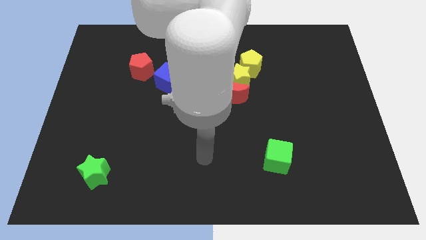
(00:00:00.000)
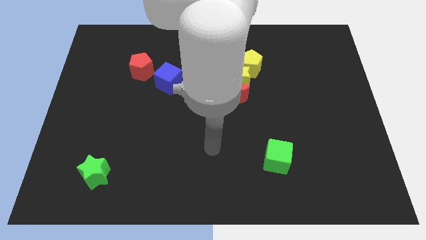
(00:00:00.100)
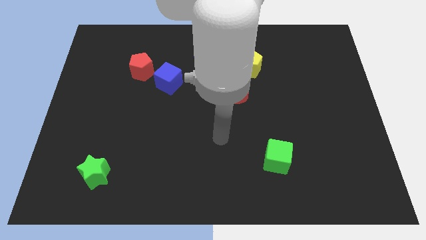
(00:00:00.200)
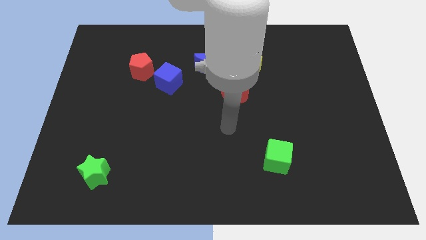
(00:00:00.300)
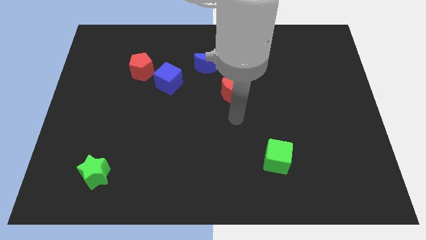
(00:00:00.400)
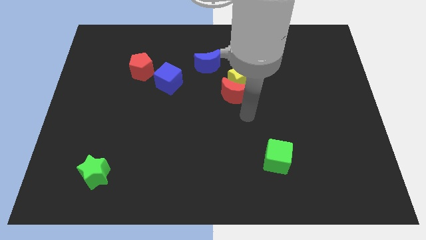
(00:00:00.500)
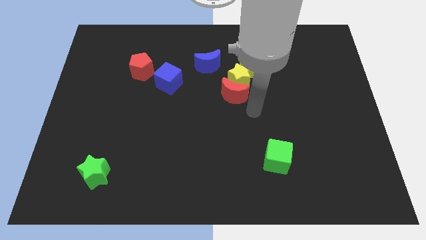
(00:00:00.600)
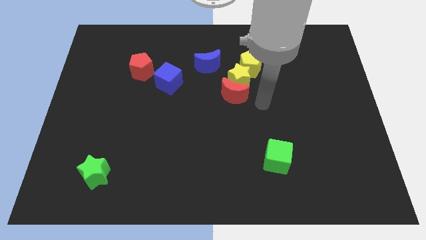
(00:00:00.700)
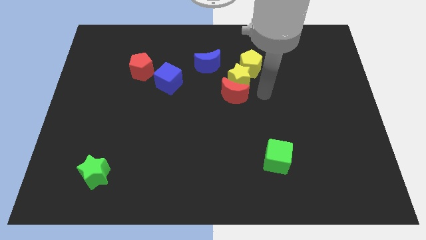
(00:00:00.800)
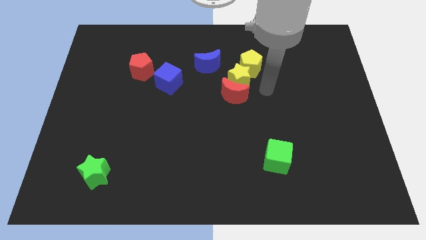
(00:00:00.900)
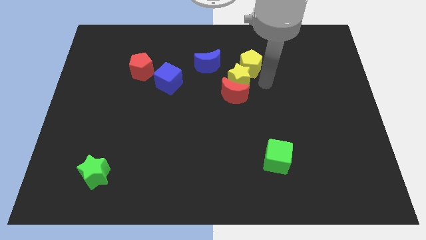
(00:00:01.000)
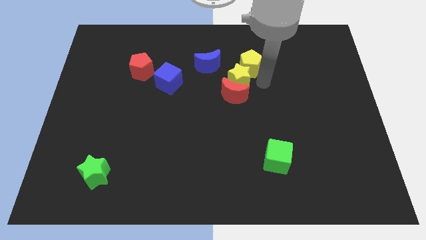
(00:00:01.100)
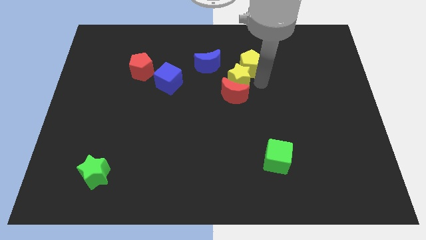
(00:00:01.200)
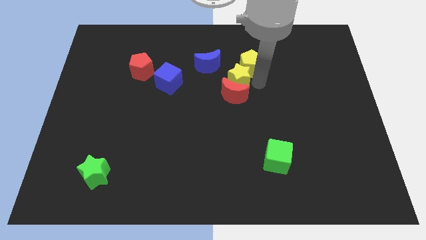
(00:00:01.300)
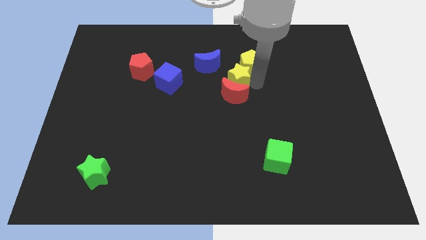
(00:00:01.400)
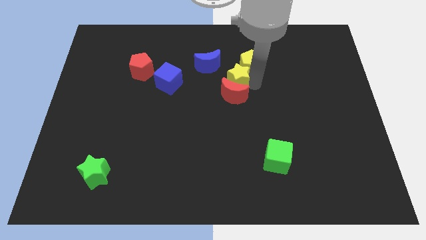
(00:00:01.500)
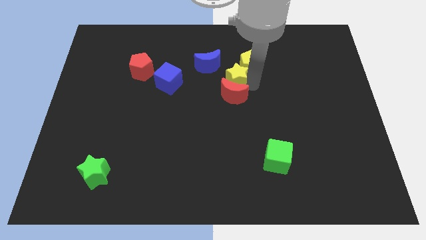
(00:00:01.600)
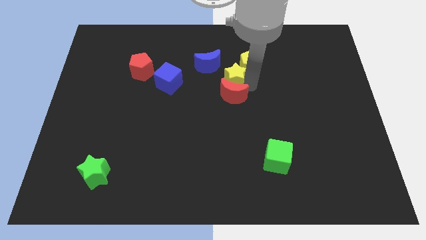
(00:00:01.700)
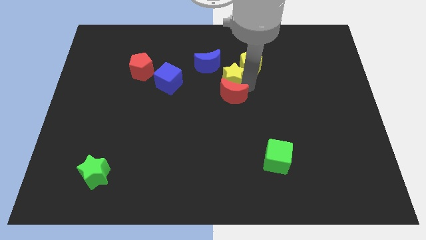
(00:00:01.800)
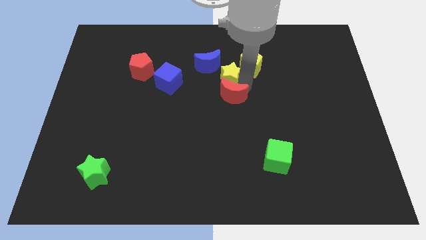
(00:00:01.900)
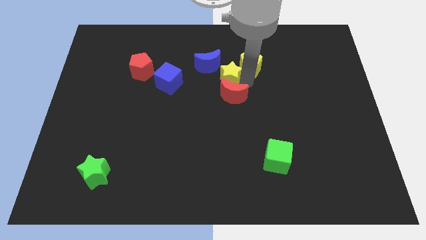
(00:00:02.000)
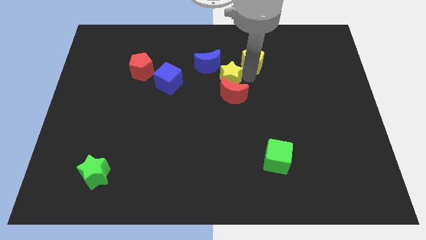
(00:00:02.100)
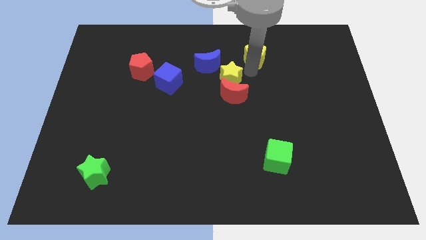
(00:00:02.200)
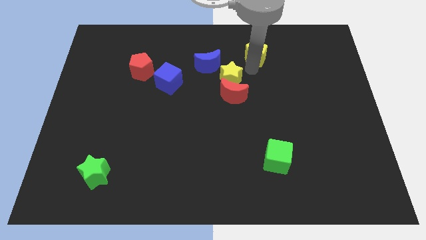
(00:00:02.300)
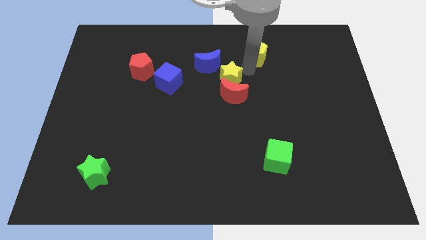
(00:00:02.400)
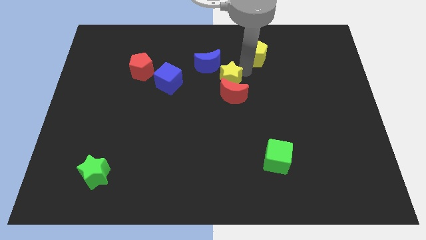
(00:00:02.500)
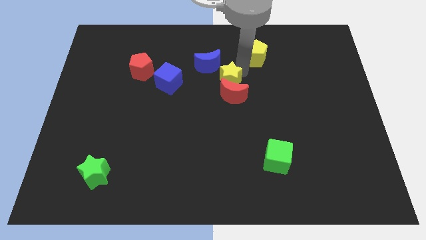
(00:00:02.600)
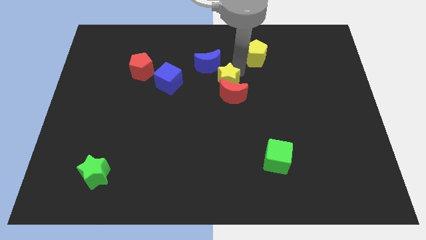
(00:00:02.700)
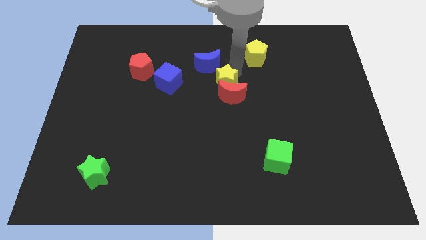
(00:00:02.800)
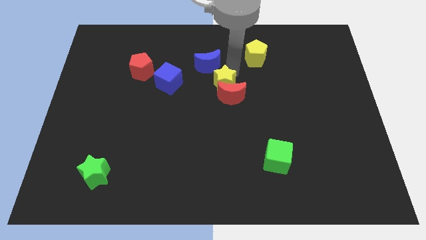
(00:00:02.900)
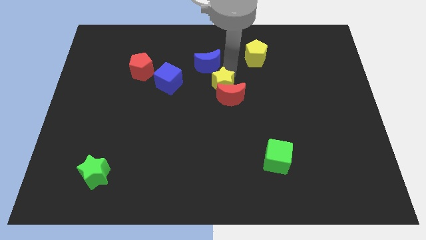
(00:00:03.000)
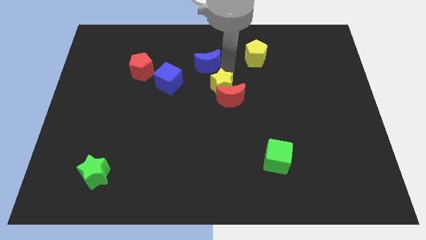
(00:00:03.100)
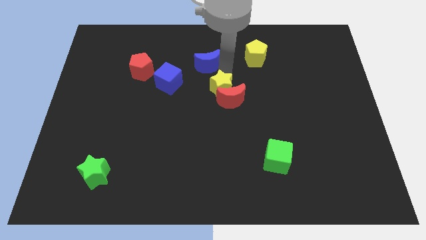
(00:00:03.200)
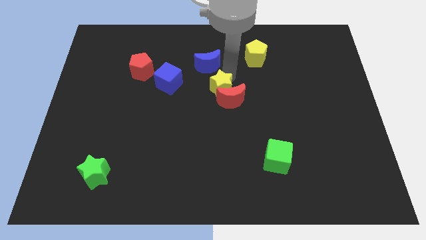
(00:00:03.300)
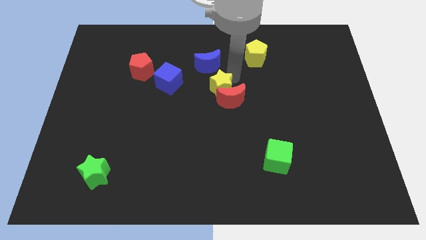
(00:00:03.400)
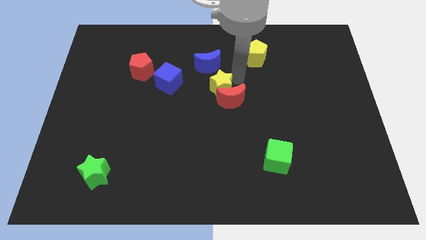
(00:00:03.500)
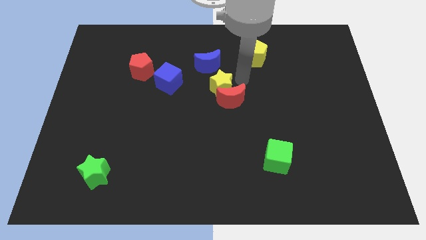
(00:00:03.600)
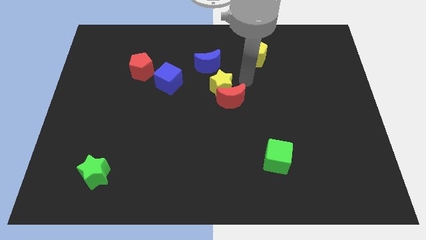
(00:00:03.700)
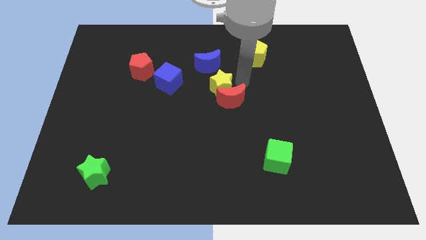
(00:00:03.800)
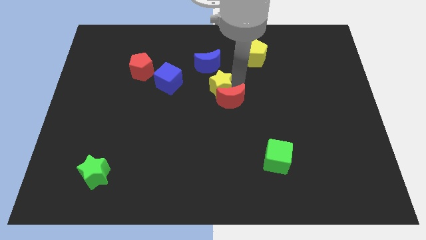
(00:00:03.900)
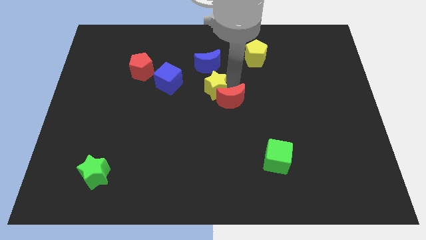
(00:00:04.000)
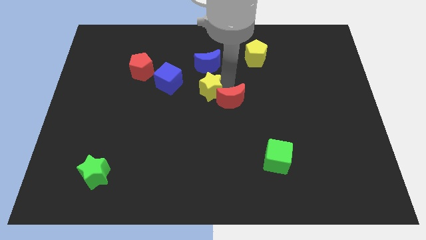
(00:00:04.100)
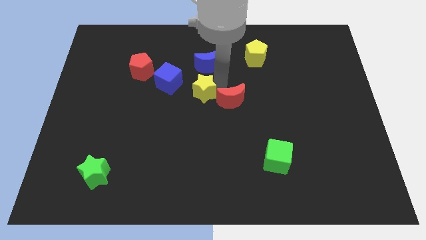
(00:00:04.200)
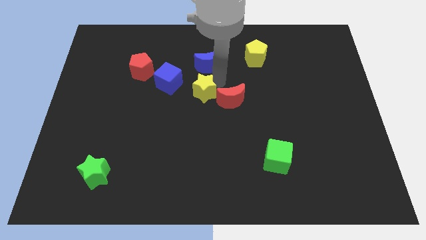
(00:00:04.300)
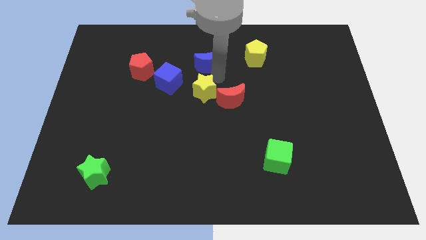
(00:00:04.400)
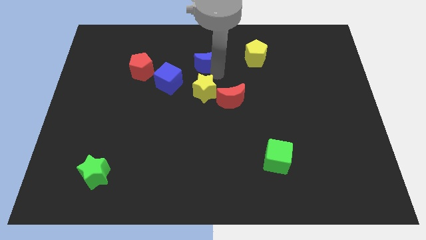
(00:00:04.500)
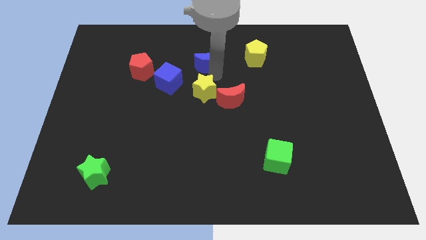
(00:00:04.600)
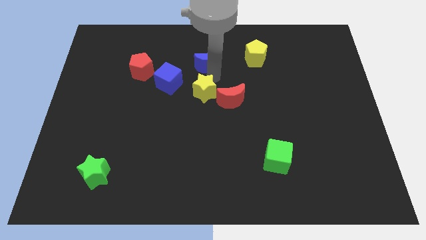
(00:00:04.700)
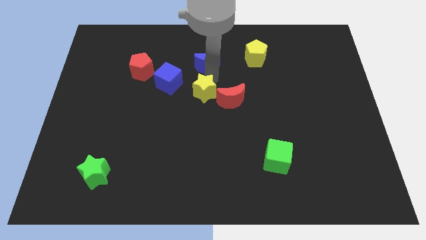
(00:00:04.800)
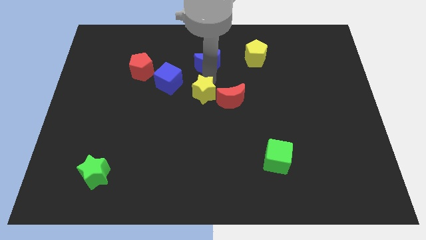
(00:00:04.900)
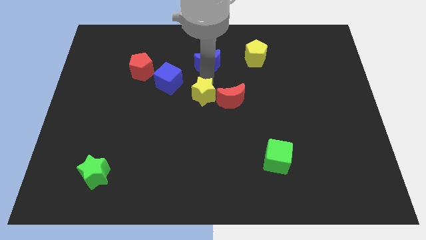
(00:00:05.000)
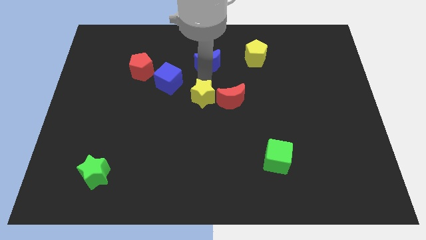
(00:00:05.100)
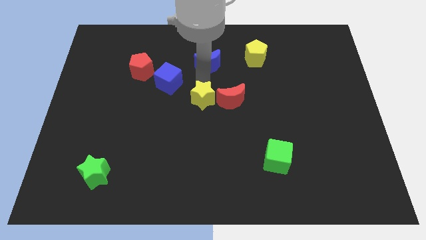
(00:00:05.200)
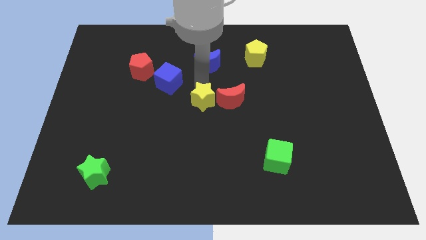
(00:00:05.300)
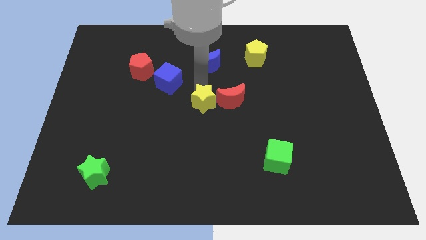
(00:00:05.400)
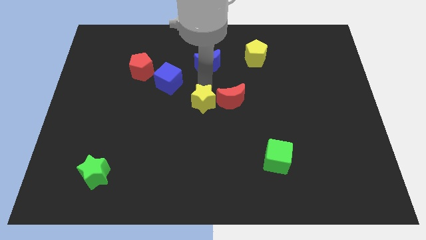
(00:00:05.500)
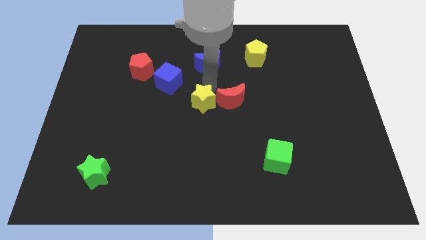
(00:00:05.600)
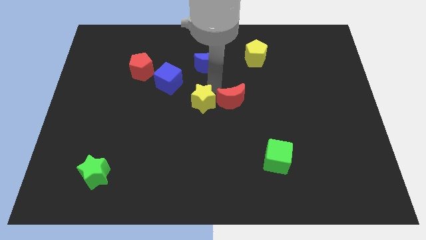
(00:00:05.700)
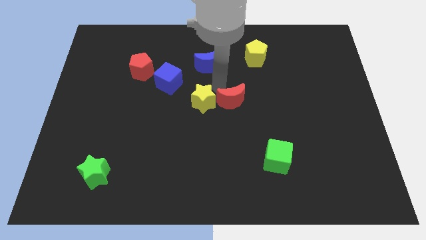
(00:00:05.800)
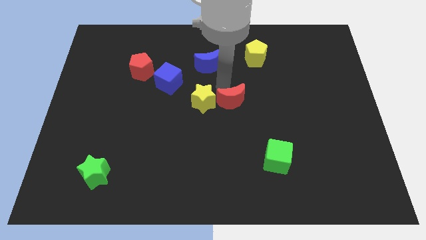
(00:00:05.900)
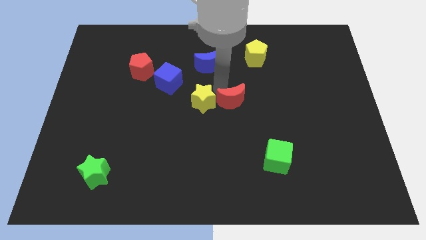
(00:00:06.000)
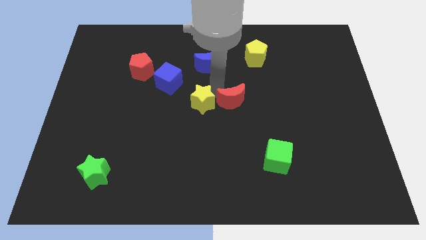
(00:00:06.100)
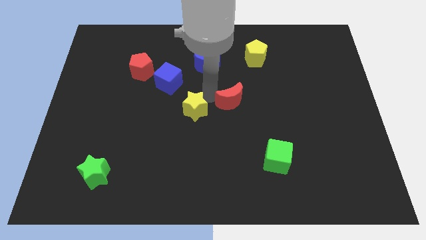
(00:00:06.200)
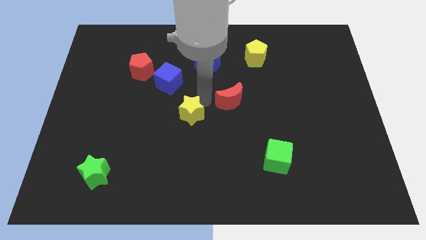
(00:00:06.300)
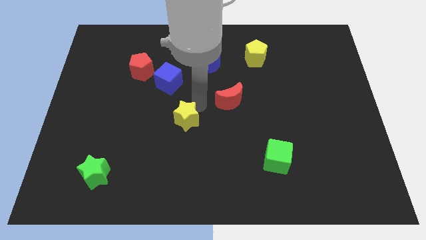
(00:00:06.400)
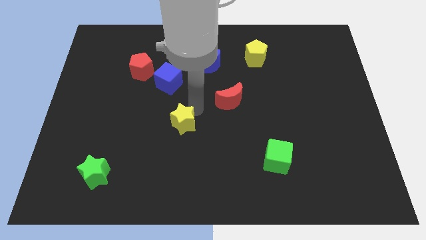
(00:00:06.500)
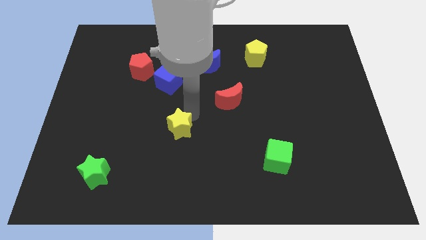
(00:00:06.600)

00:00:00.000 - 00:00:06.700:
push the yellow star down and then left

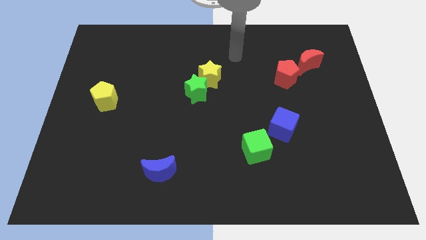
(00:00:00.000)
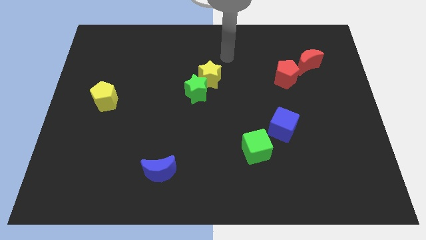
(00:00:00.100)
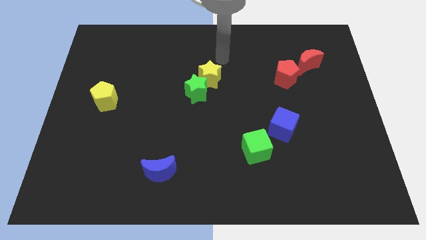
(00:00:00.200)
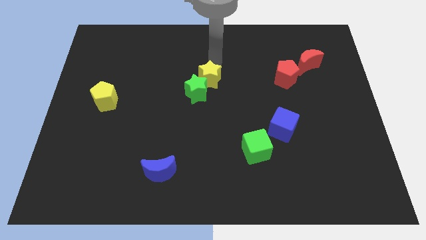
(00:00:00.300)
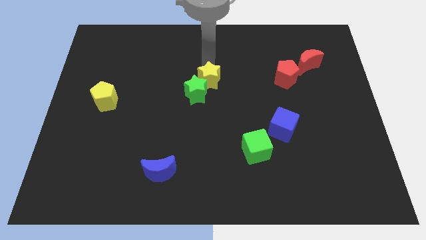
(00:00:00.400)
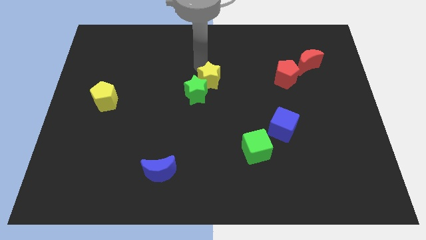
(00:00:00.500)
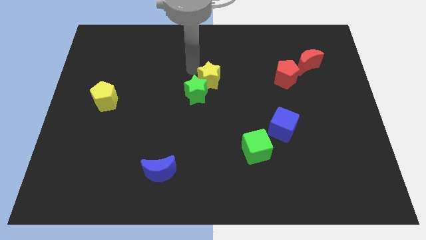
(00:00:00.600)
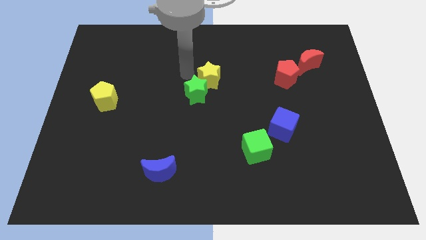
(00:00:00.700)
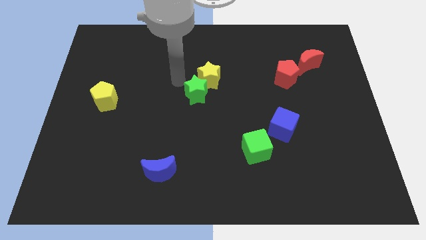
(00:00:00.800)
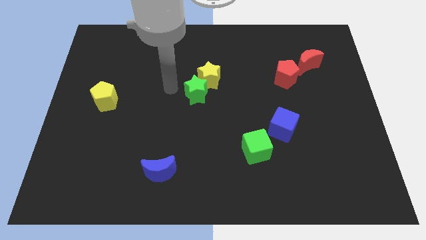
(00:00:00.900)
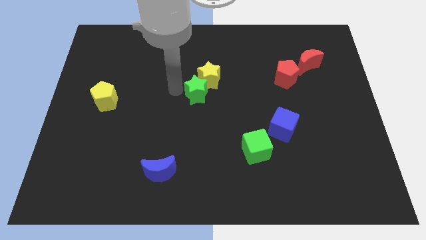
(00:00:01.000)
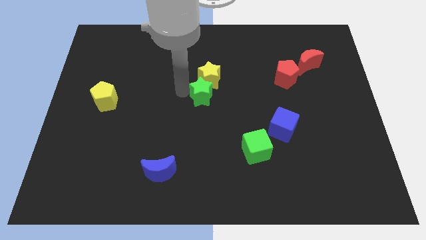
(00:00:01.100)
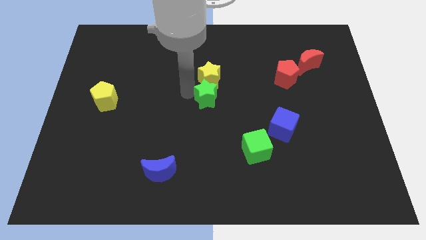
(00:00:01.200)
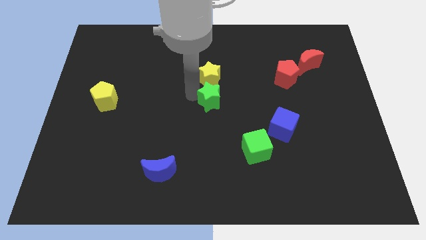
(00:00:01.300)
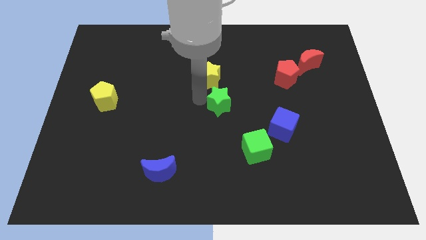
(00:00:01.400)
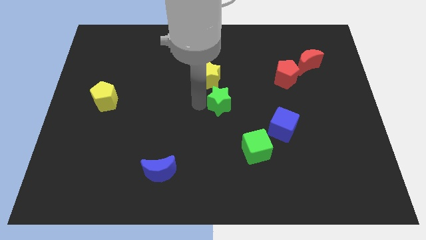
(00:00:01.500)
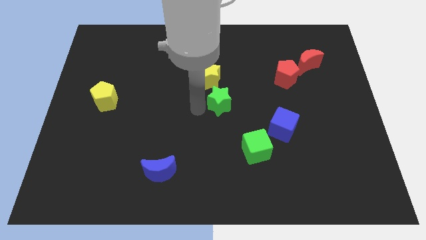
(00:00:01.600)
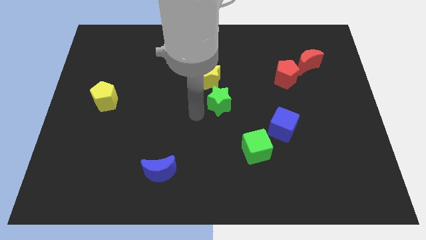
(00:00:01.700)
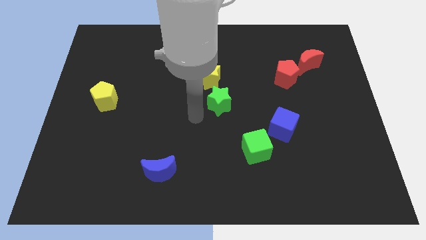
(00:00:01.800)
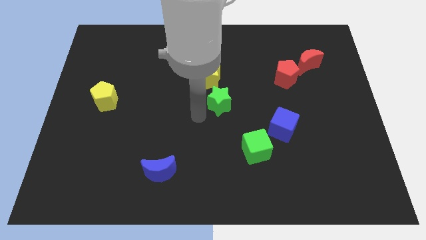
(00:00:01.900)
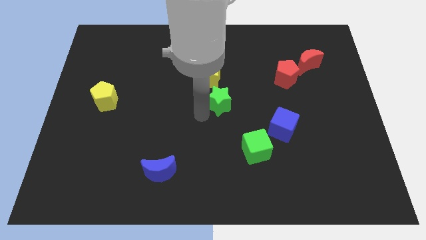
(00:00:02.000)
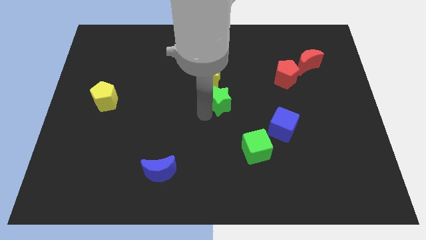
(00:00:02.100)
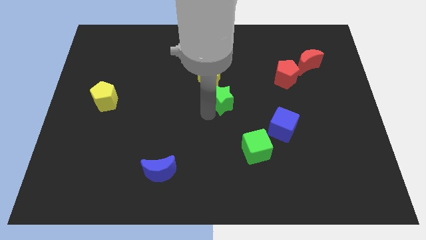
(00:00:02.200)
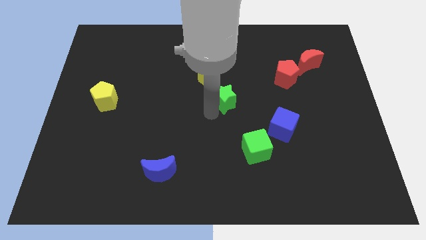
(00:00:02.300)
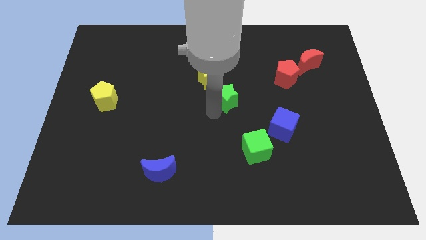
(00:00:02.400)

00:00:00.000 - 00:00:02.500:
move the green star to the right somewhat
